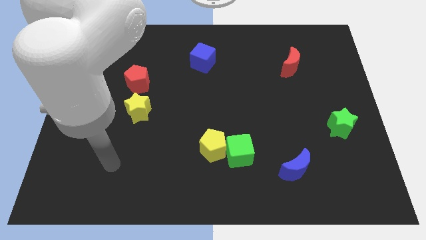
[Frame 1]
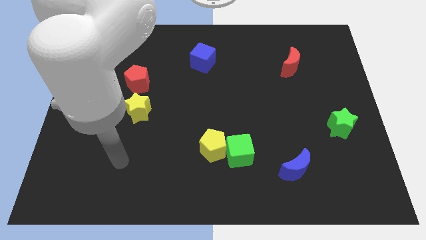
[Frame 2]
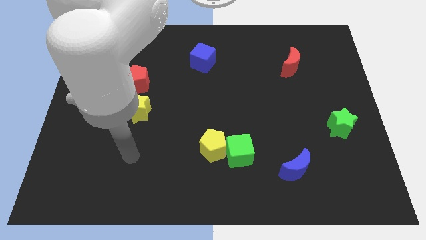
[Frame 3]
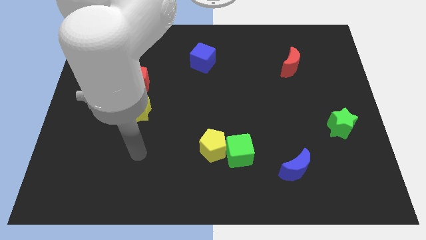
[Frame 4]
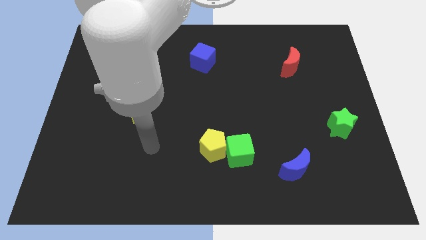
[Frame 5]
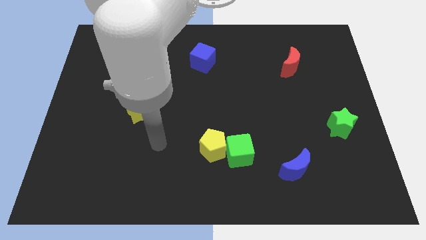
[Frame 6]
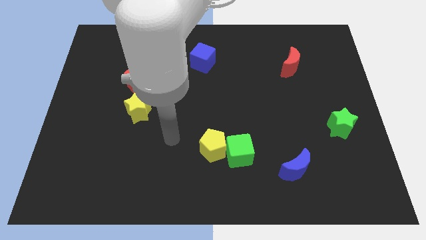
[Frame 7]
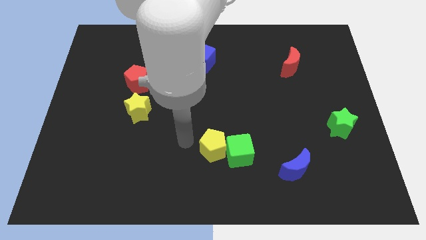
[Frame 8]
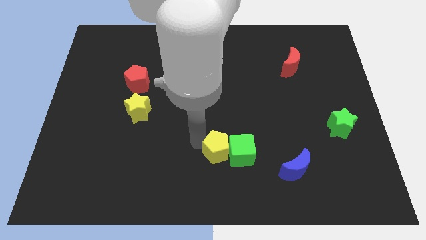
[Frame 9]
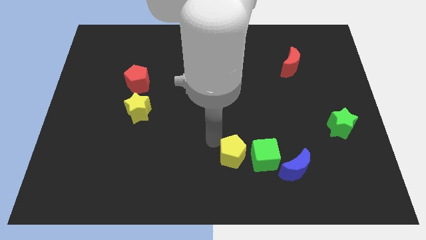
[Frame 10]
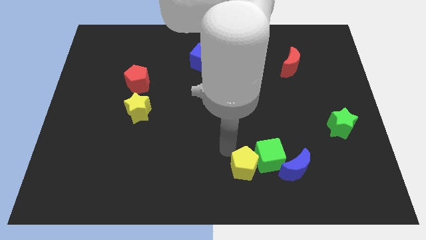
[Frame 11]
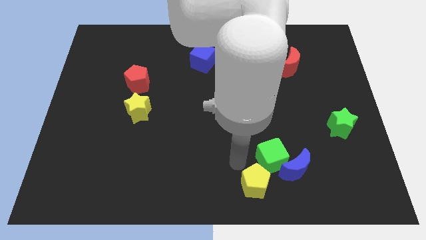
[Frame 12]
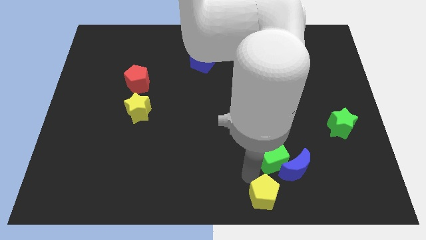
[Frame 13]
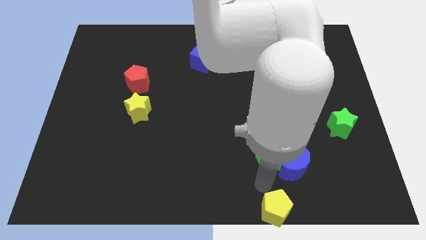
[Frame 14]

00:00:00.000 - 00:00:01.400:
pull the green cube apart from the yellow pentagon

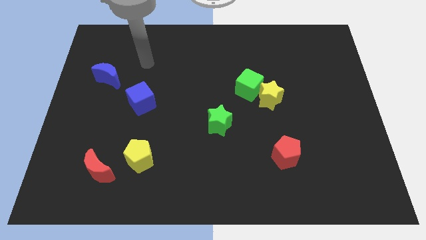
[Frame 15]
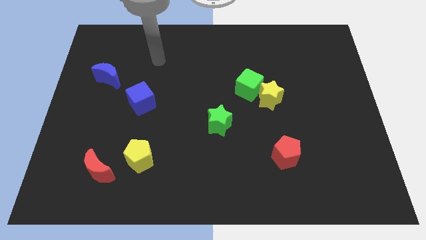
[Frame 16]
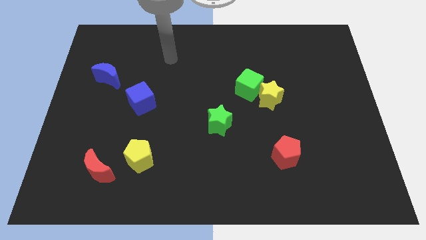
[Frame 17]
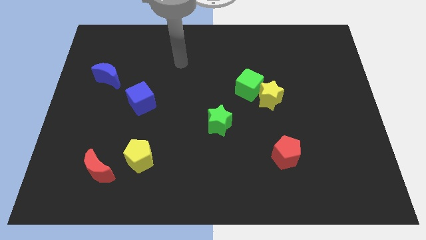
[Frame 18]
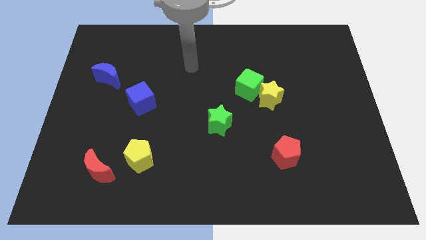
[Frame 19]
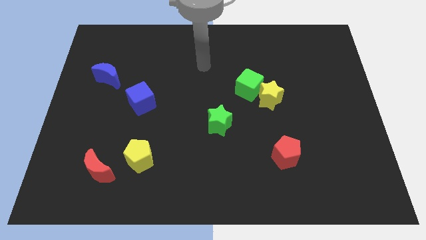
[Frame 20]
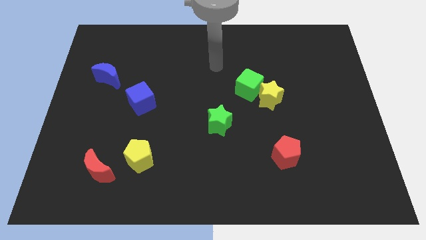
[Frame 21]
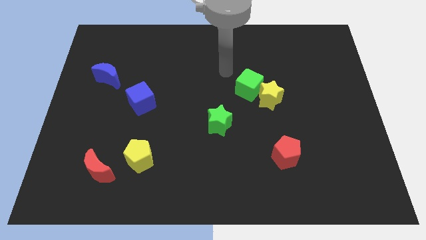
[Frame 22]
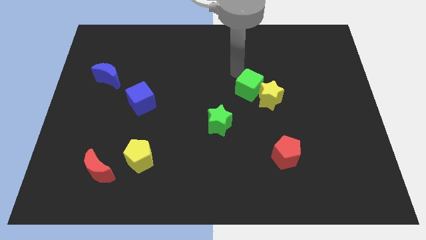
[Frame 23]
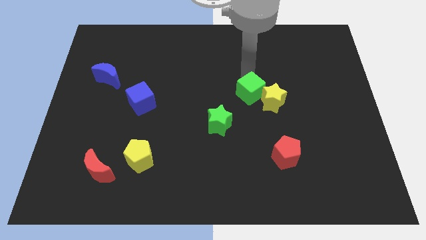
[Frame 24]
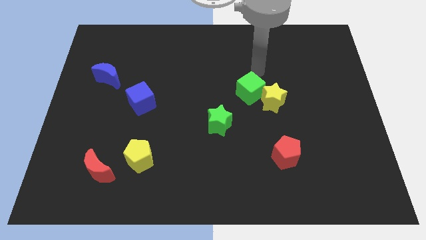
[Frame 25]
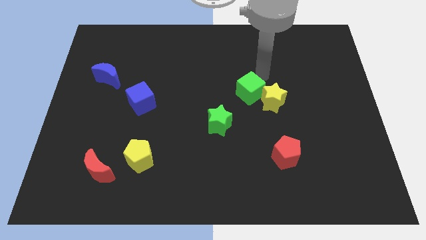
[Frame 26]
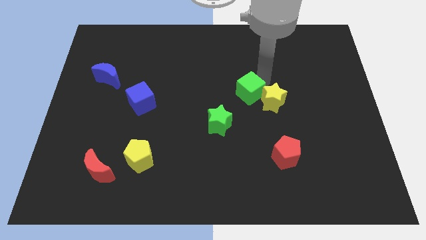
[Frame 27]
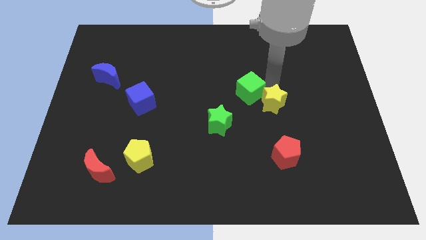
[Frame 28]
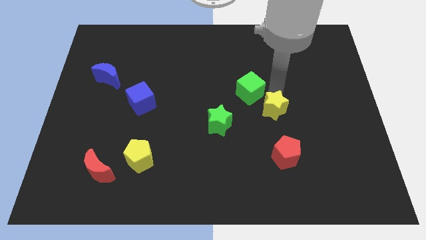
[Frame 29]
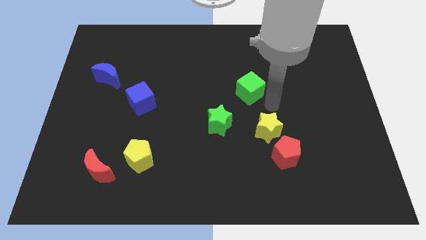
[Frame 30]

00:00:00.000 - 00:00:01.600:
move the green cube away from the yellow star

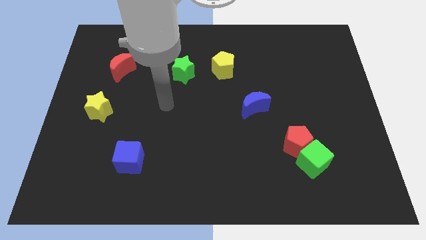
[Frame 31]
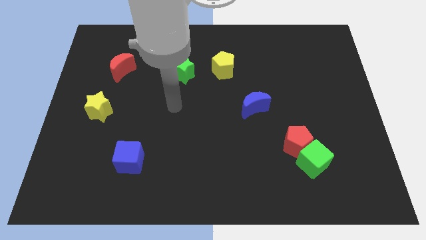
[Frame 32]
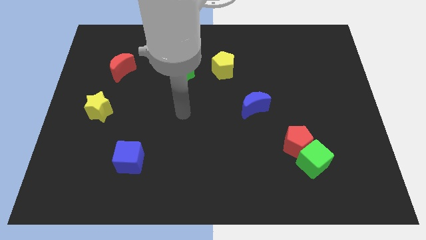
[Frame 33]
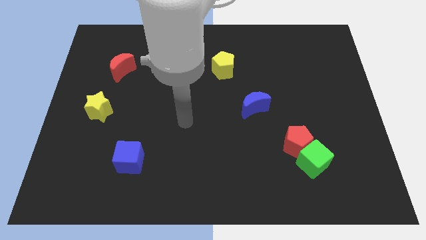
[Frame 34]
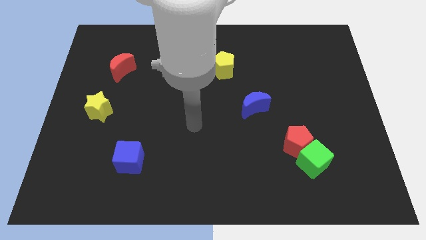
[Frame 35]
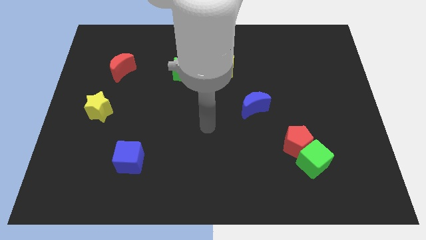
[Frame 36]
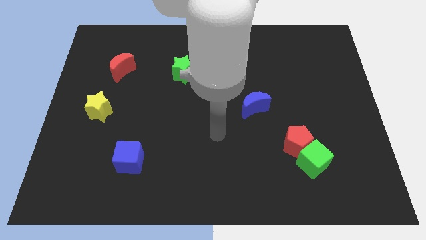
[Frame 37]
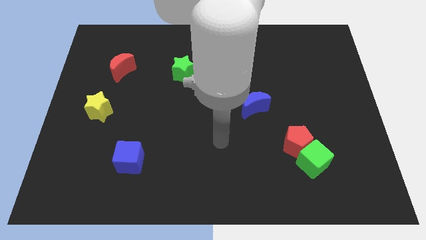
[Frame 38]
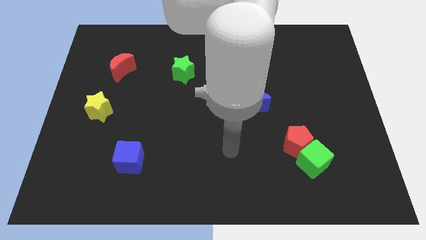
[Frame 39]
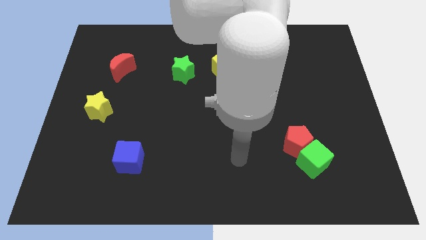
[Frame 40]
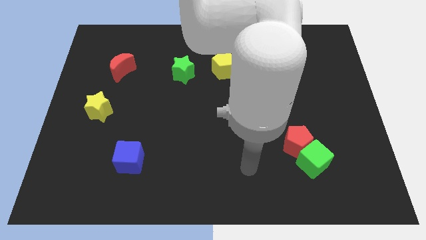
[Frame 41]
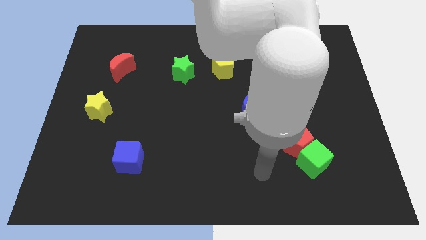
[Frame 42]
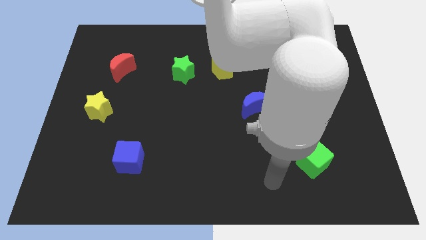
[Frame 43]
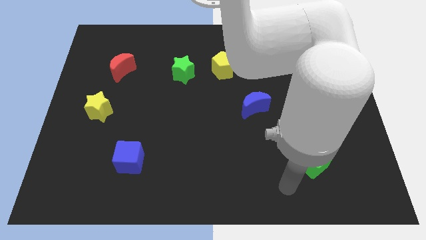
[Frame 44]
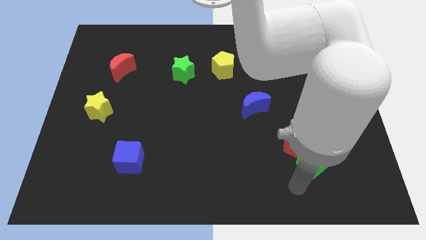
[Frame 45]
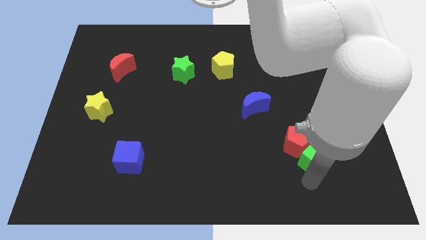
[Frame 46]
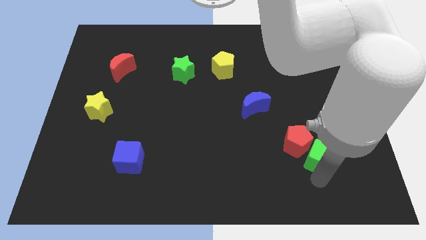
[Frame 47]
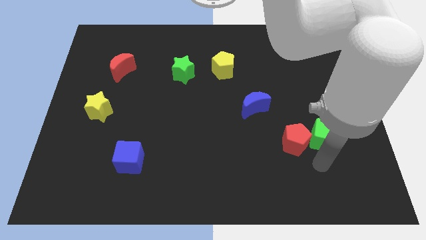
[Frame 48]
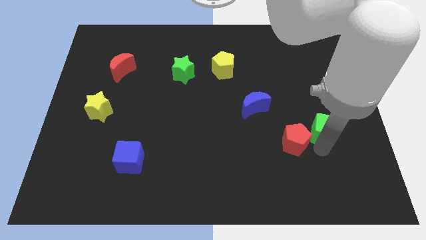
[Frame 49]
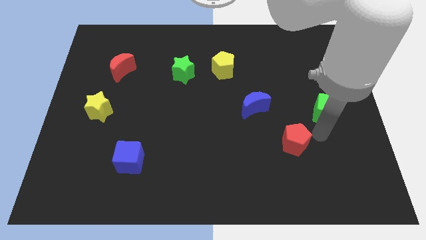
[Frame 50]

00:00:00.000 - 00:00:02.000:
move the red pentagon away from the green cube

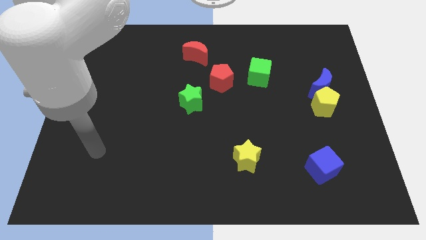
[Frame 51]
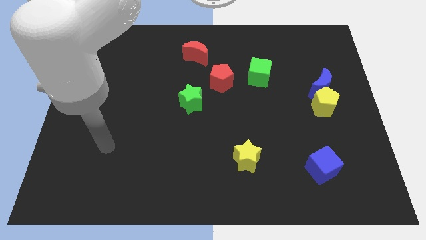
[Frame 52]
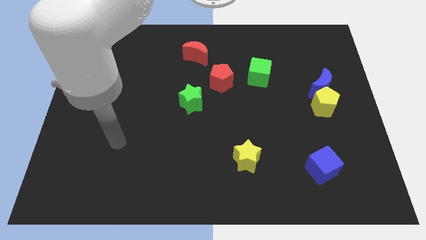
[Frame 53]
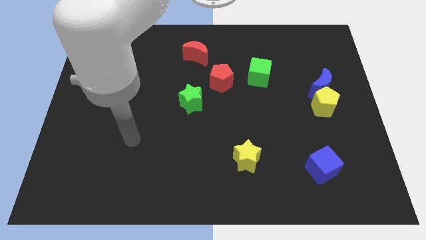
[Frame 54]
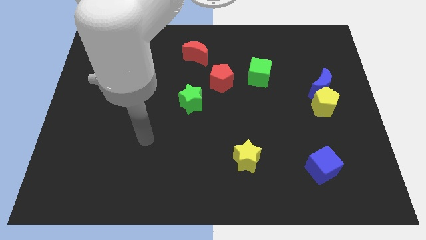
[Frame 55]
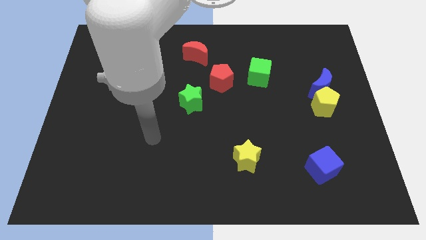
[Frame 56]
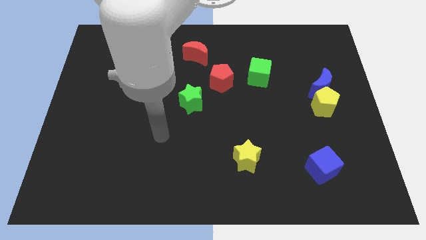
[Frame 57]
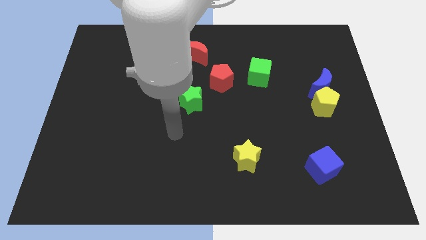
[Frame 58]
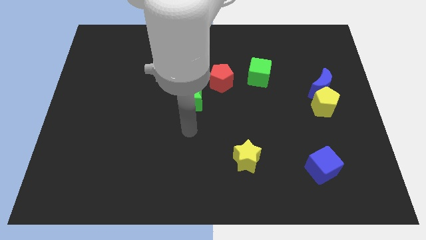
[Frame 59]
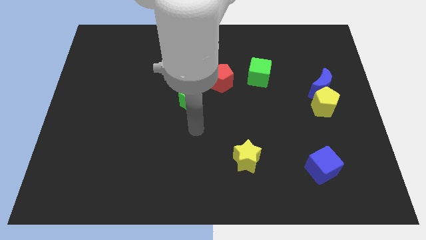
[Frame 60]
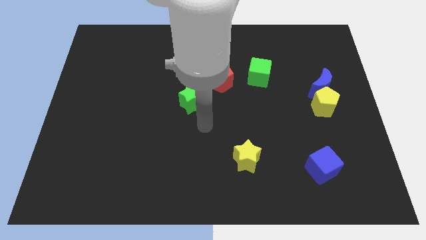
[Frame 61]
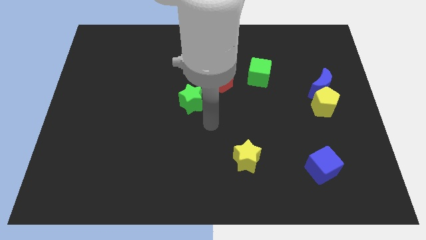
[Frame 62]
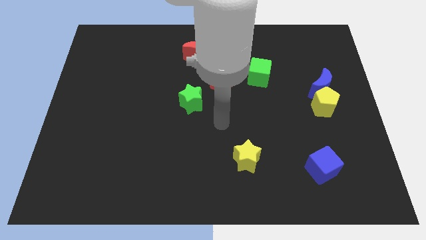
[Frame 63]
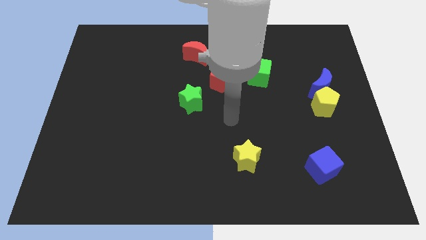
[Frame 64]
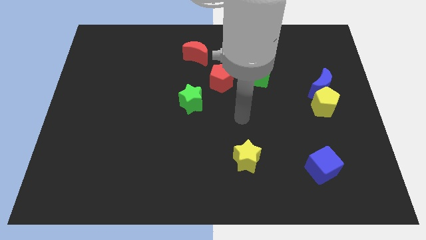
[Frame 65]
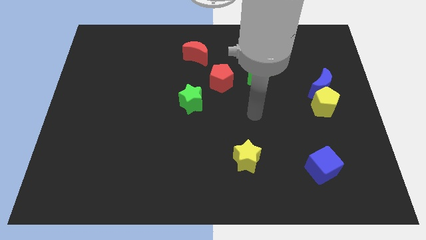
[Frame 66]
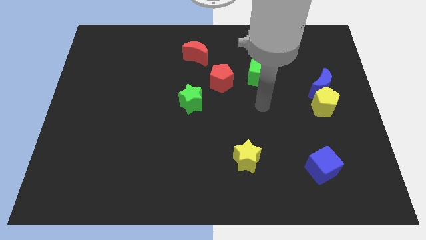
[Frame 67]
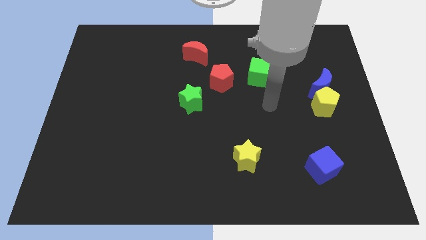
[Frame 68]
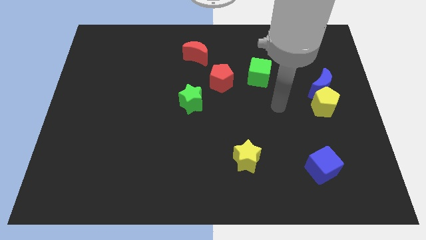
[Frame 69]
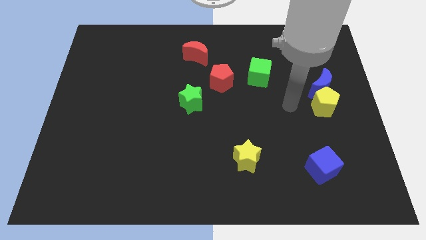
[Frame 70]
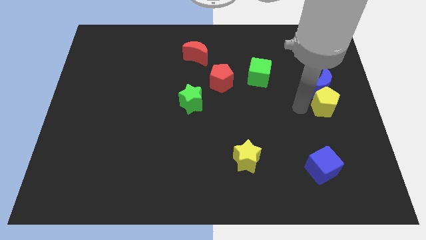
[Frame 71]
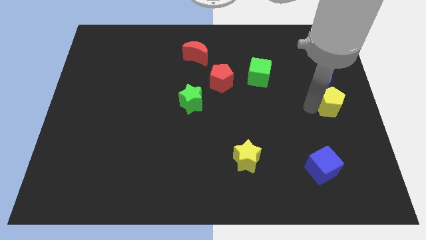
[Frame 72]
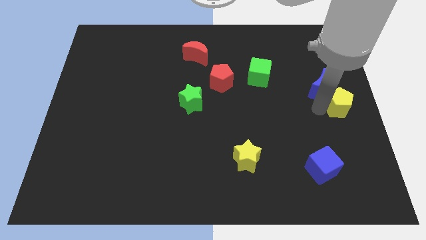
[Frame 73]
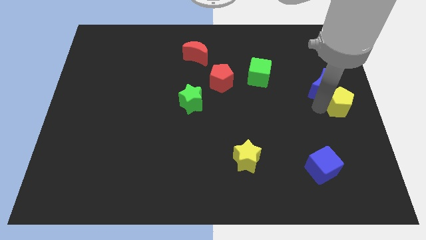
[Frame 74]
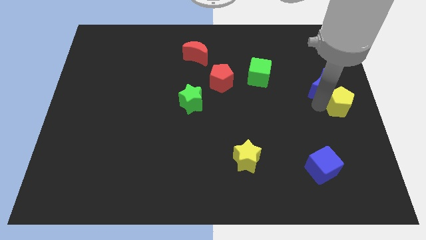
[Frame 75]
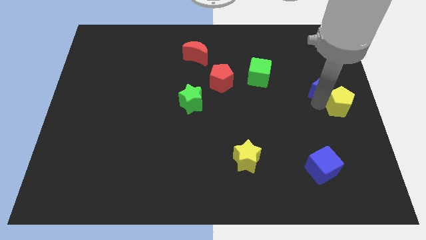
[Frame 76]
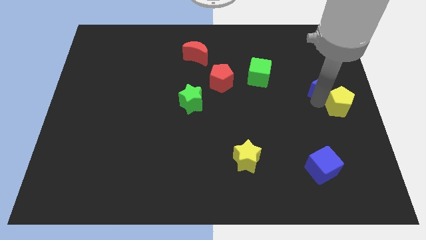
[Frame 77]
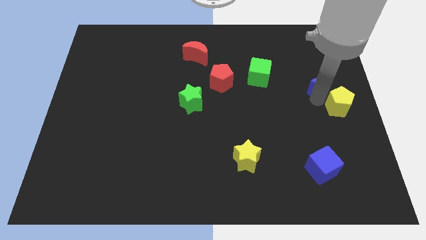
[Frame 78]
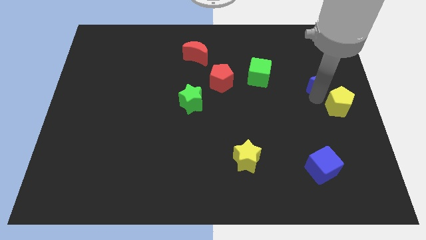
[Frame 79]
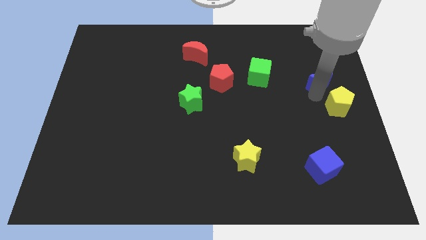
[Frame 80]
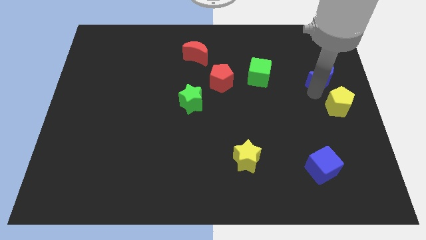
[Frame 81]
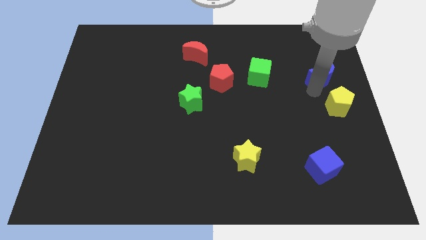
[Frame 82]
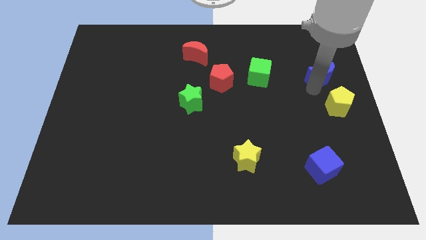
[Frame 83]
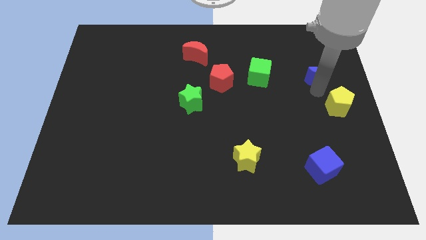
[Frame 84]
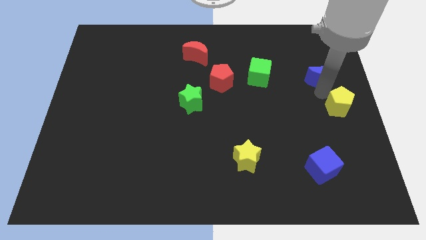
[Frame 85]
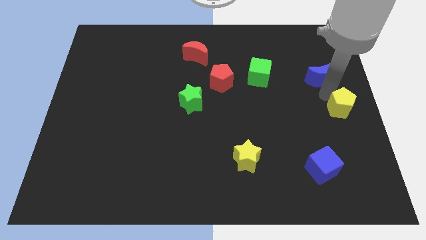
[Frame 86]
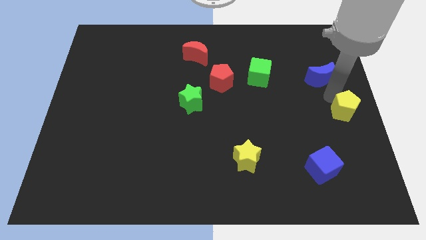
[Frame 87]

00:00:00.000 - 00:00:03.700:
separate the blue moon from the yellow pentagon

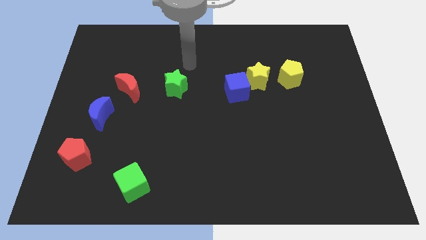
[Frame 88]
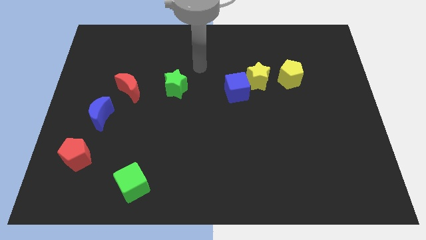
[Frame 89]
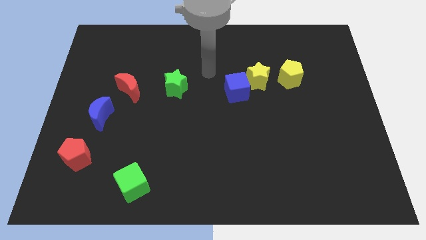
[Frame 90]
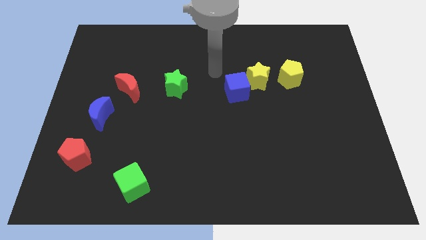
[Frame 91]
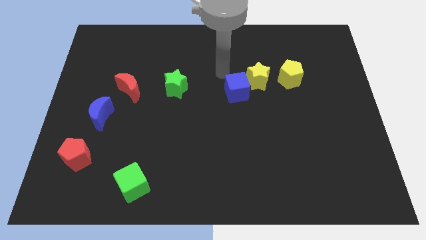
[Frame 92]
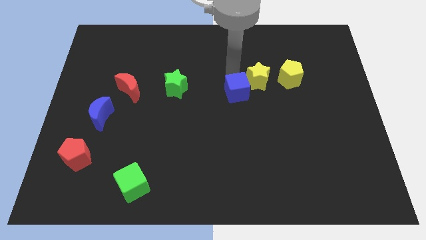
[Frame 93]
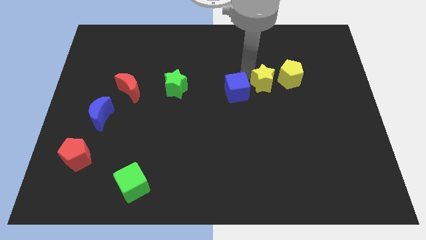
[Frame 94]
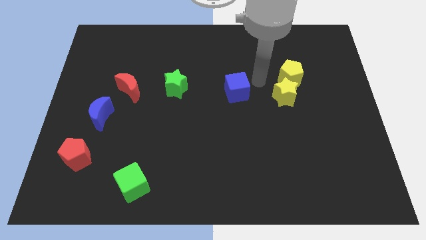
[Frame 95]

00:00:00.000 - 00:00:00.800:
move the blue cube away from the yellow star

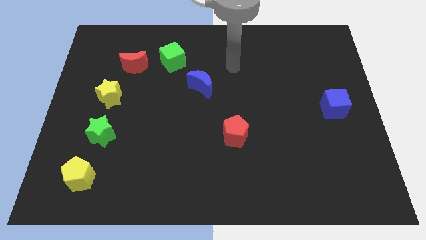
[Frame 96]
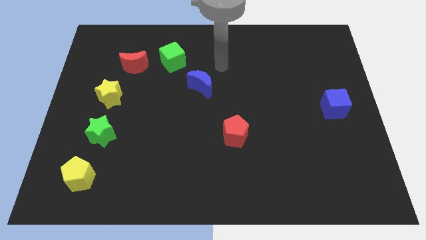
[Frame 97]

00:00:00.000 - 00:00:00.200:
move the red moon away from the green cube
